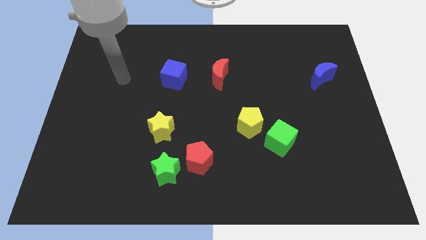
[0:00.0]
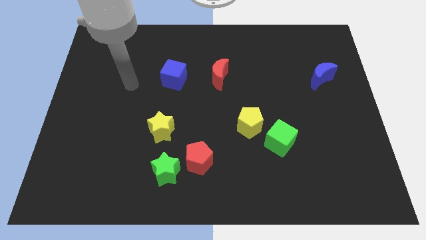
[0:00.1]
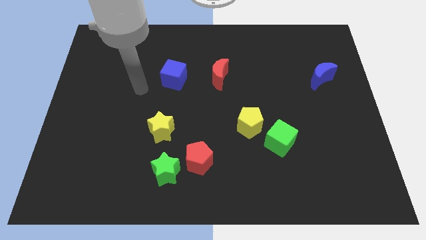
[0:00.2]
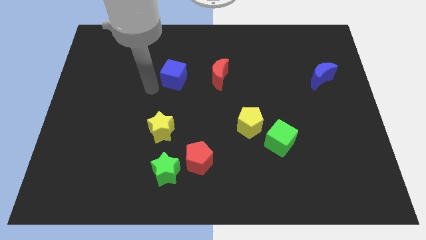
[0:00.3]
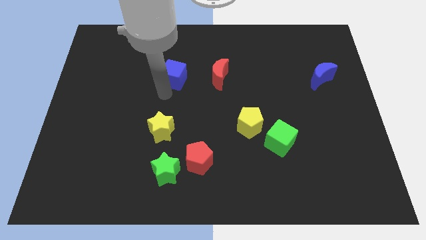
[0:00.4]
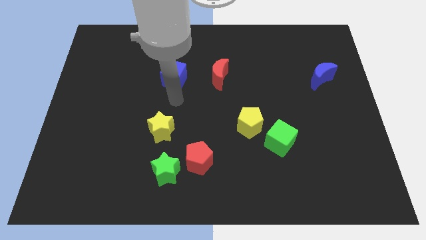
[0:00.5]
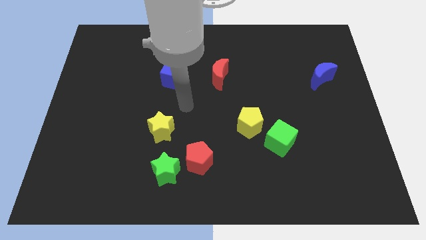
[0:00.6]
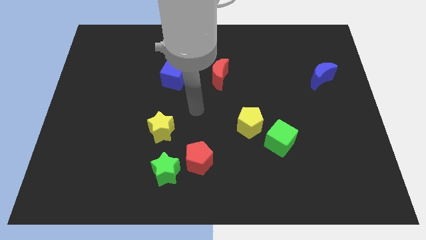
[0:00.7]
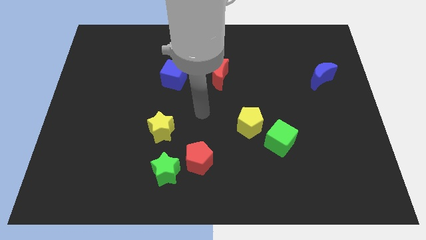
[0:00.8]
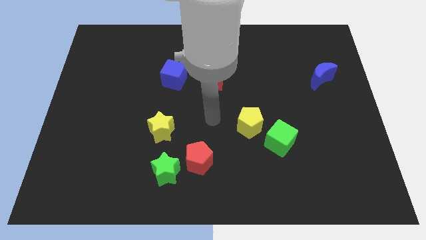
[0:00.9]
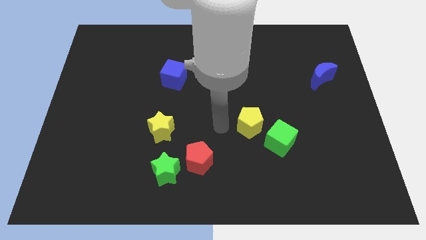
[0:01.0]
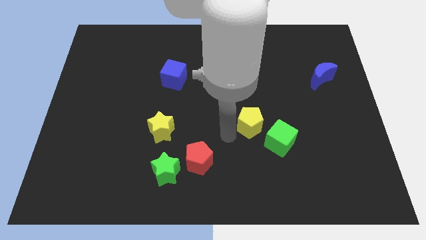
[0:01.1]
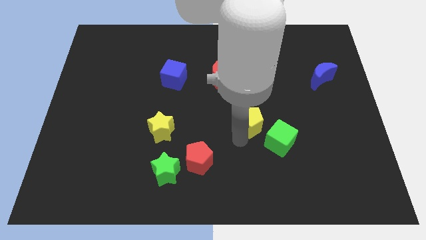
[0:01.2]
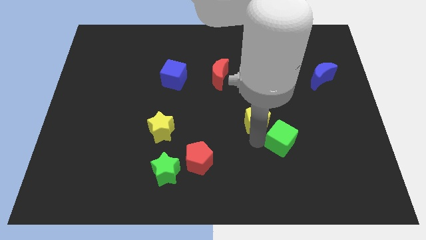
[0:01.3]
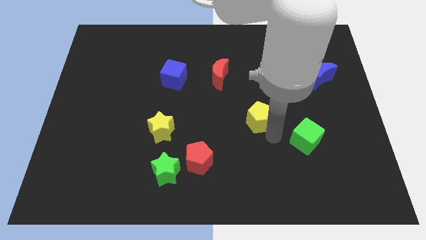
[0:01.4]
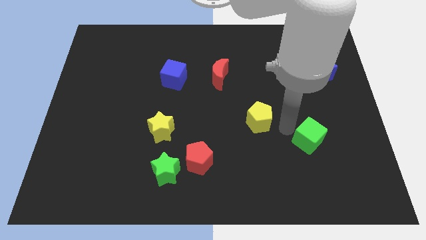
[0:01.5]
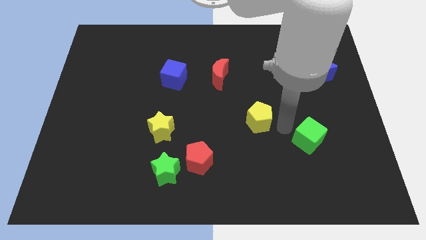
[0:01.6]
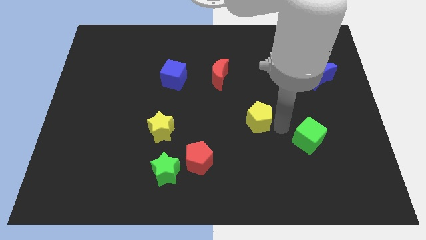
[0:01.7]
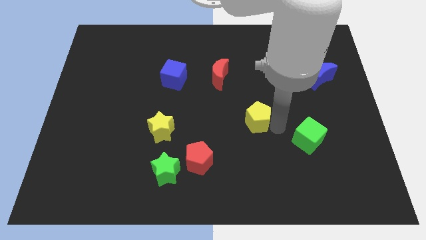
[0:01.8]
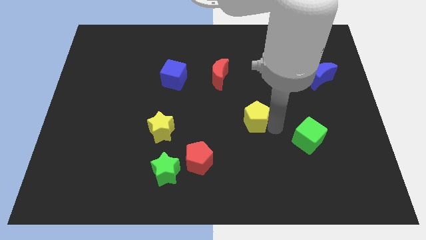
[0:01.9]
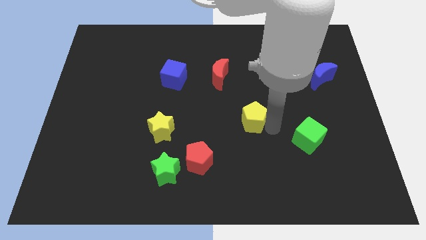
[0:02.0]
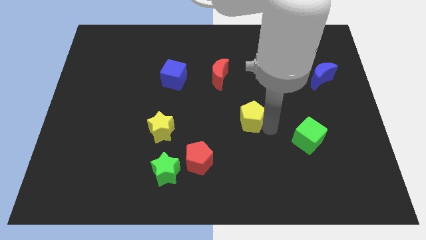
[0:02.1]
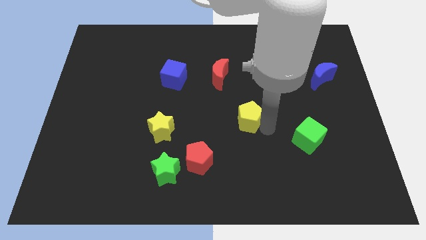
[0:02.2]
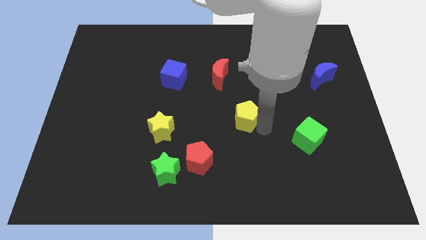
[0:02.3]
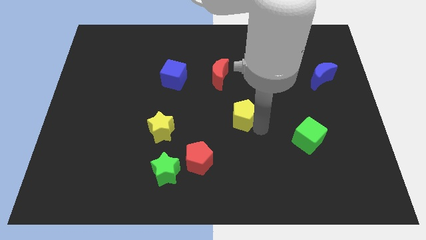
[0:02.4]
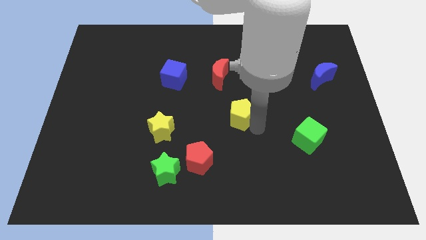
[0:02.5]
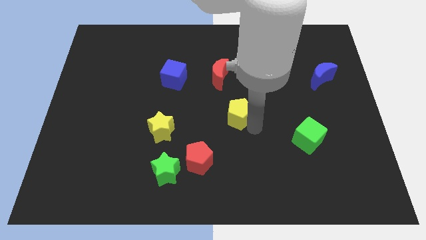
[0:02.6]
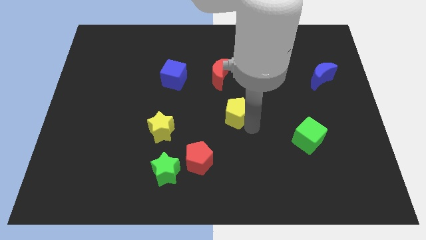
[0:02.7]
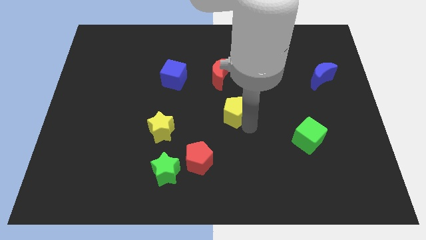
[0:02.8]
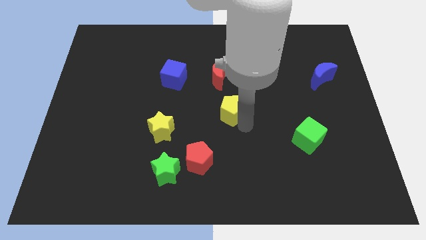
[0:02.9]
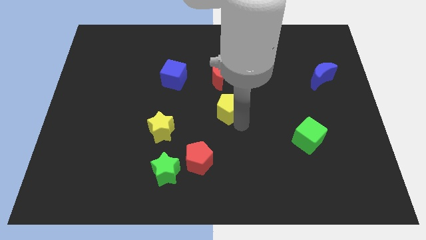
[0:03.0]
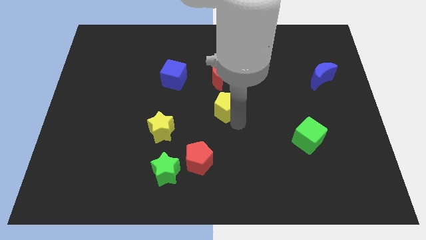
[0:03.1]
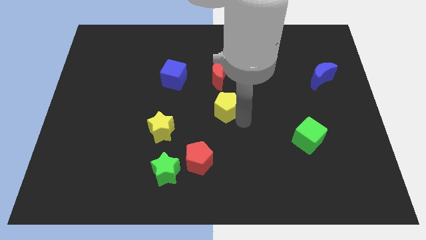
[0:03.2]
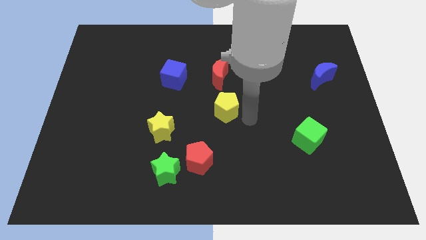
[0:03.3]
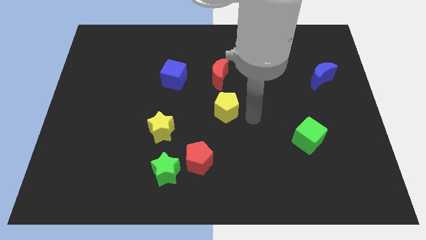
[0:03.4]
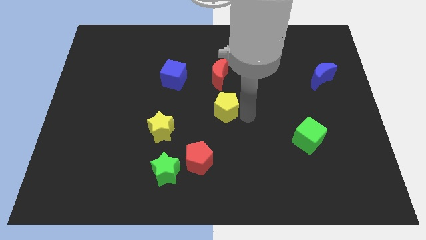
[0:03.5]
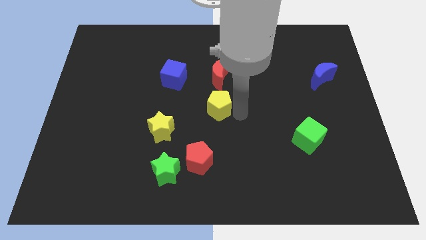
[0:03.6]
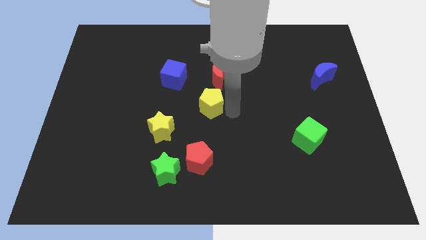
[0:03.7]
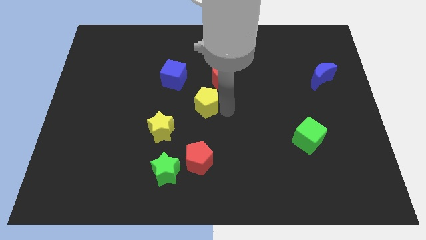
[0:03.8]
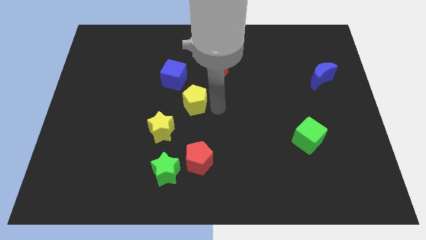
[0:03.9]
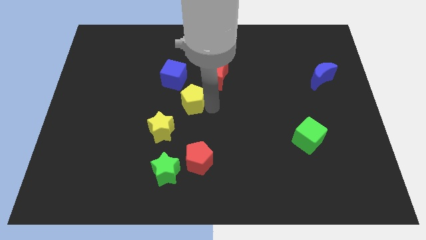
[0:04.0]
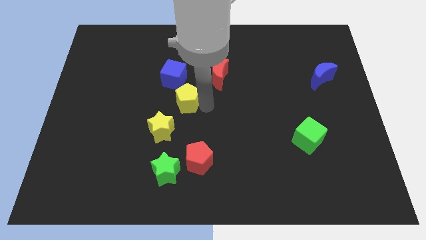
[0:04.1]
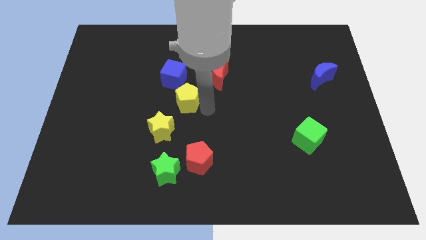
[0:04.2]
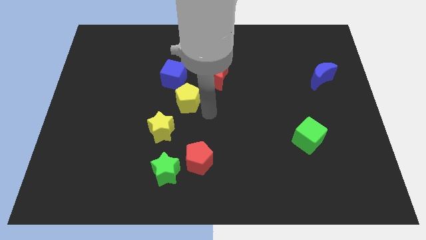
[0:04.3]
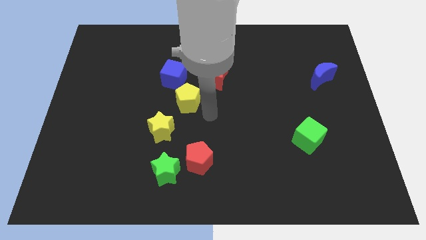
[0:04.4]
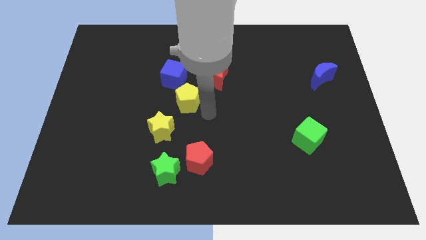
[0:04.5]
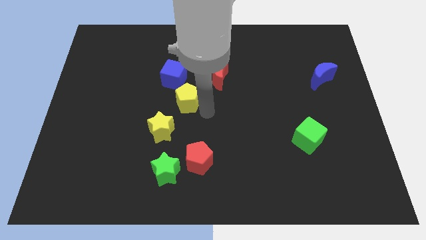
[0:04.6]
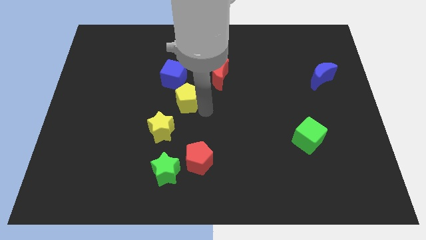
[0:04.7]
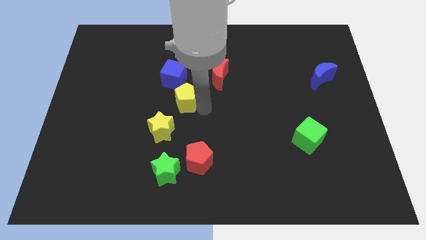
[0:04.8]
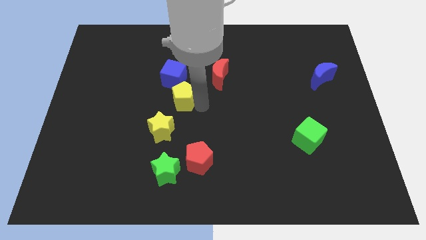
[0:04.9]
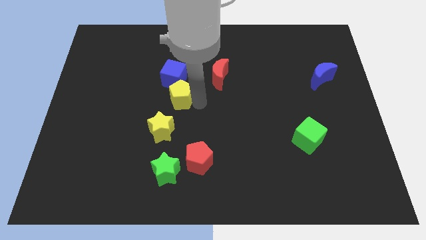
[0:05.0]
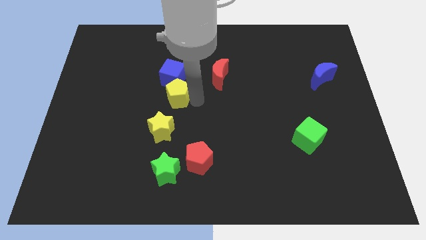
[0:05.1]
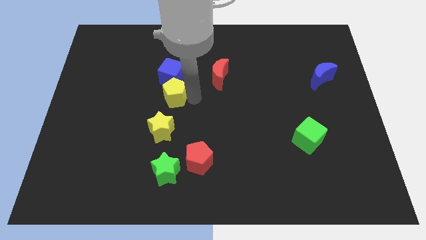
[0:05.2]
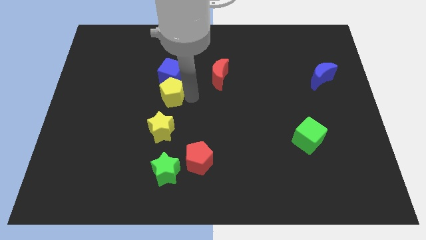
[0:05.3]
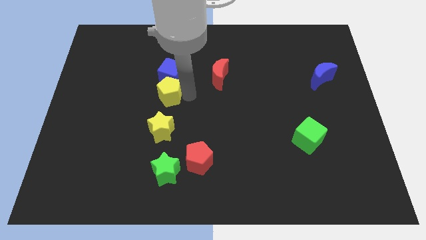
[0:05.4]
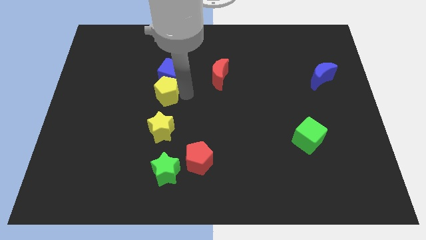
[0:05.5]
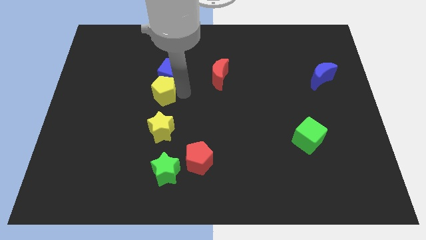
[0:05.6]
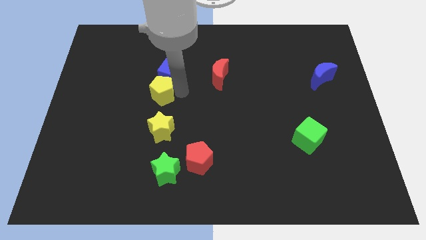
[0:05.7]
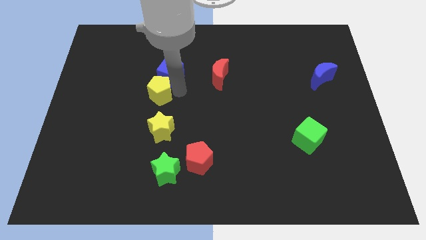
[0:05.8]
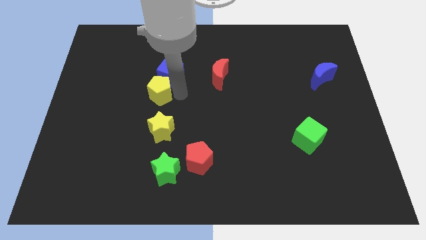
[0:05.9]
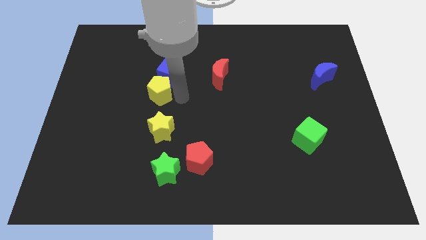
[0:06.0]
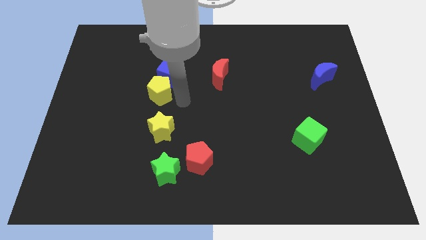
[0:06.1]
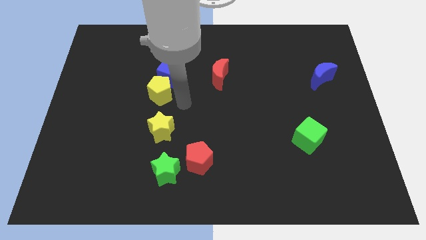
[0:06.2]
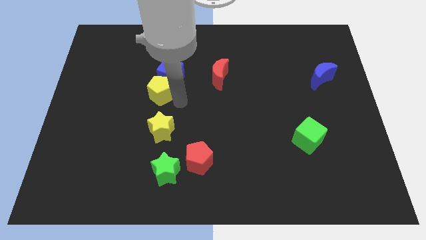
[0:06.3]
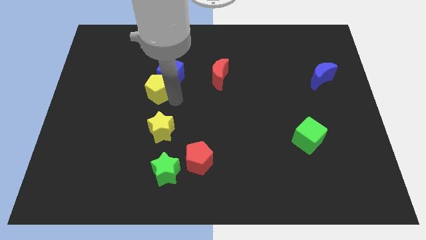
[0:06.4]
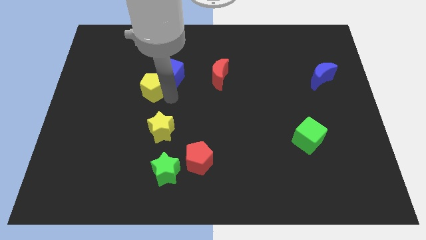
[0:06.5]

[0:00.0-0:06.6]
put the yellow pentagon to the left side of the blue cube

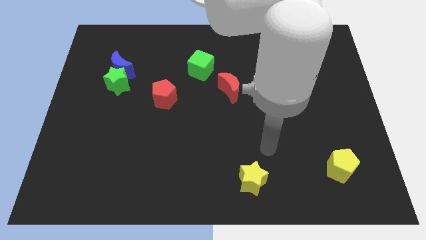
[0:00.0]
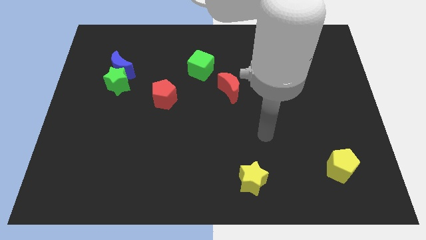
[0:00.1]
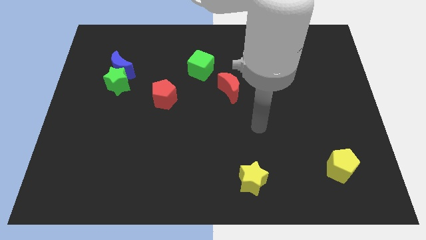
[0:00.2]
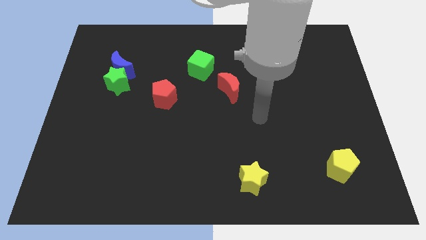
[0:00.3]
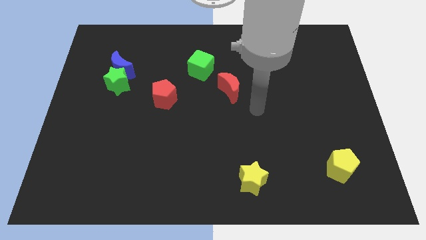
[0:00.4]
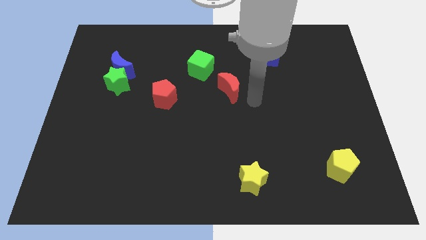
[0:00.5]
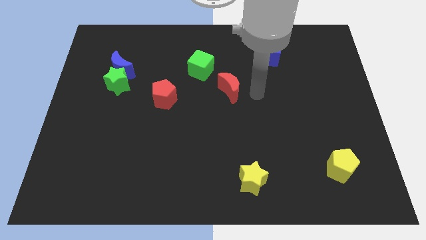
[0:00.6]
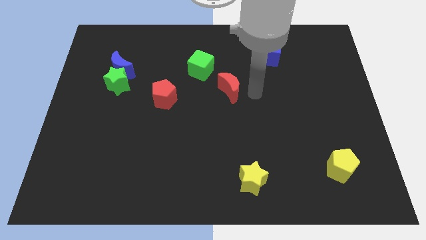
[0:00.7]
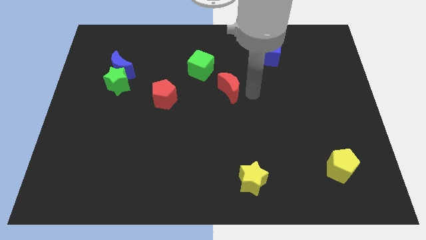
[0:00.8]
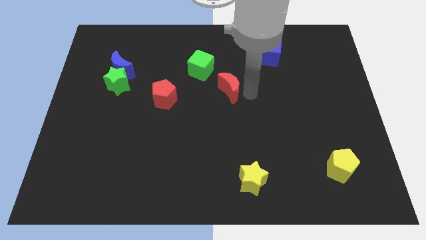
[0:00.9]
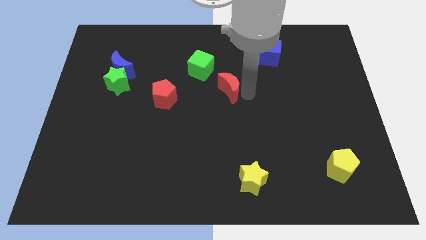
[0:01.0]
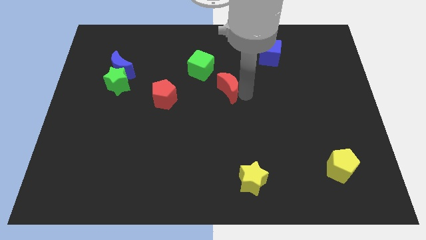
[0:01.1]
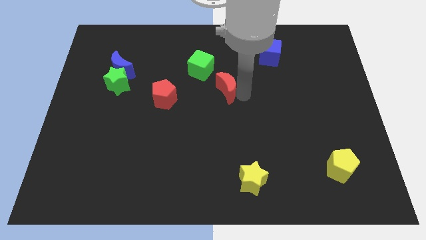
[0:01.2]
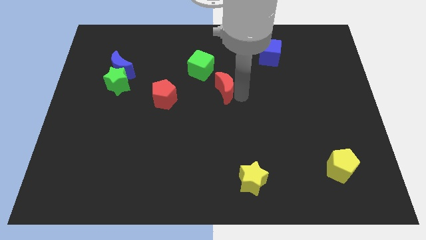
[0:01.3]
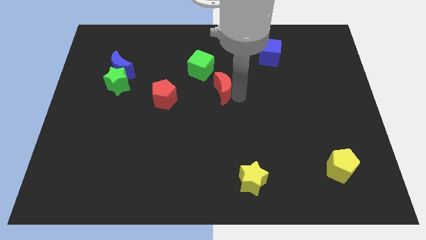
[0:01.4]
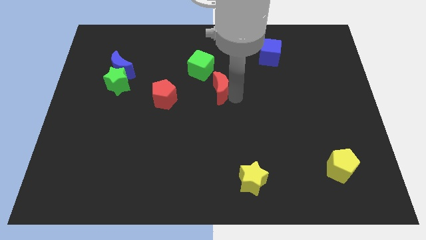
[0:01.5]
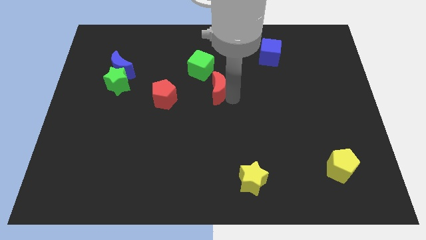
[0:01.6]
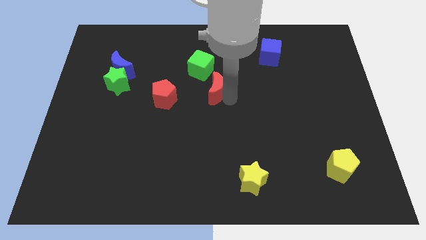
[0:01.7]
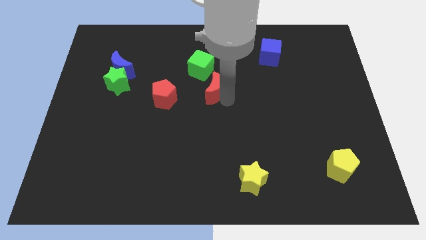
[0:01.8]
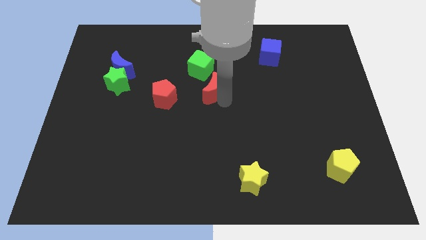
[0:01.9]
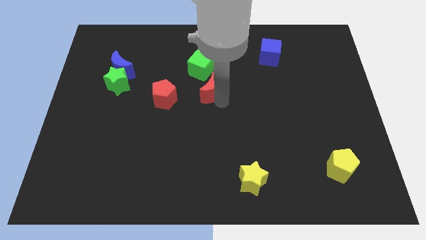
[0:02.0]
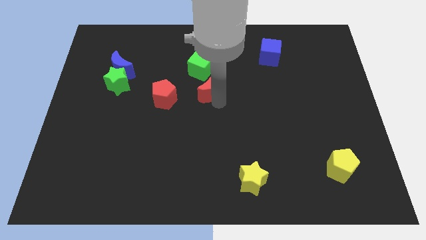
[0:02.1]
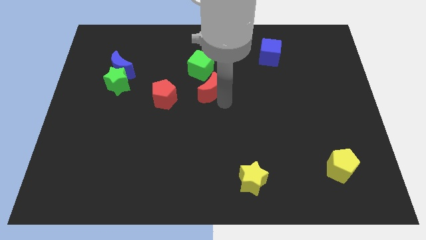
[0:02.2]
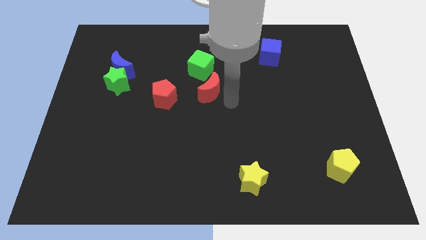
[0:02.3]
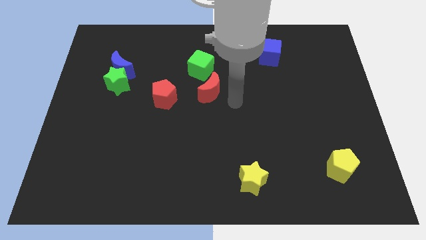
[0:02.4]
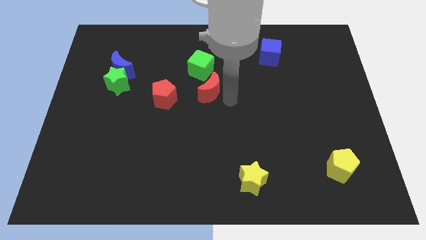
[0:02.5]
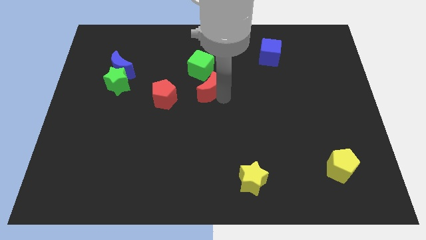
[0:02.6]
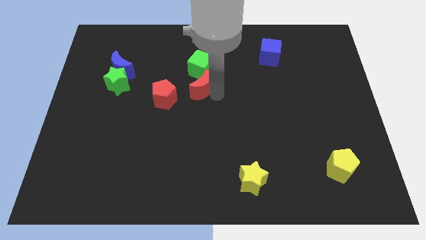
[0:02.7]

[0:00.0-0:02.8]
push the red moon to the top right side of the red pentagon
